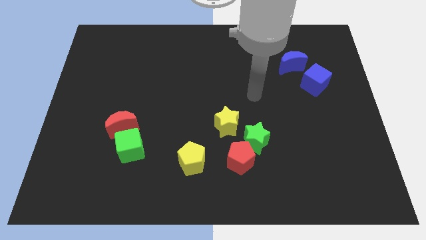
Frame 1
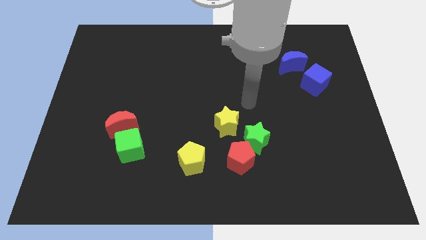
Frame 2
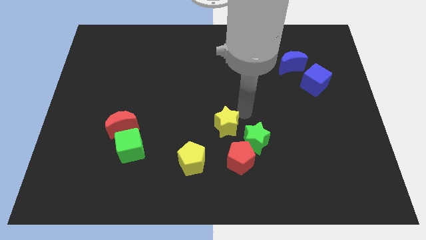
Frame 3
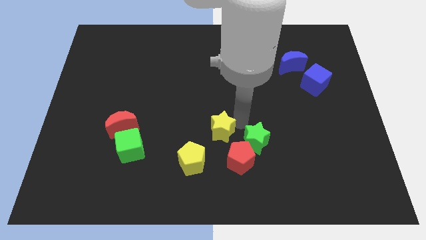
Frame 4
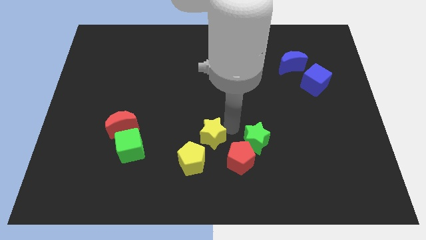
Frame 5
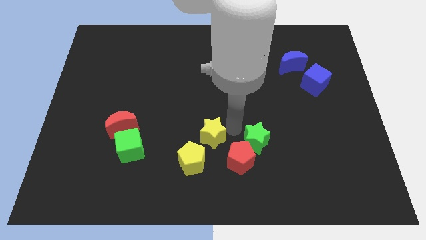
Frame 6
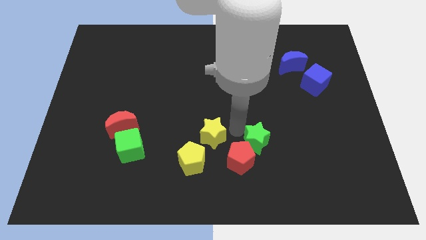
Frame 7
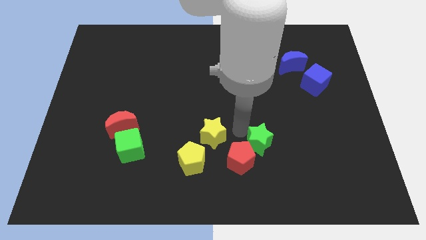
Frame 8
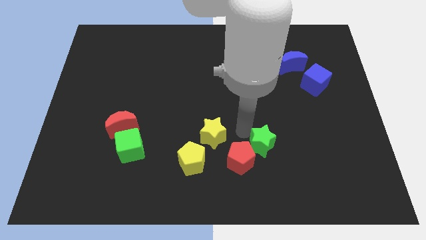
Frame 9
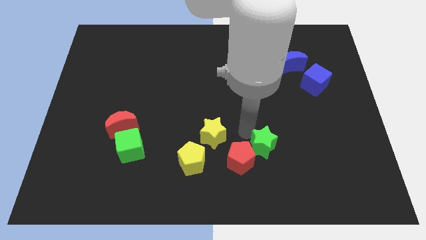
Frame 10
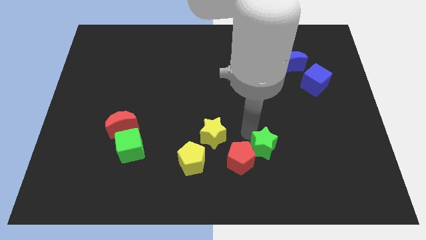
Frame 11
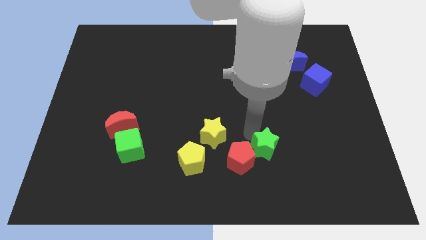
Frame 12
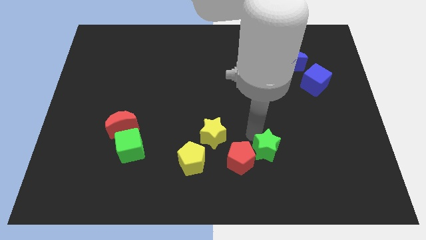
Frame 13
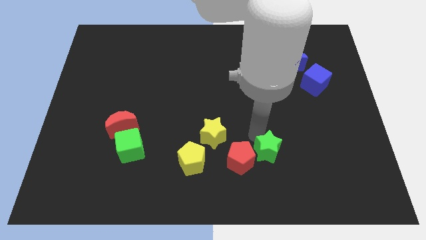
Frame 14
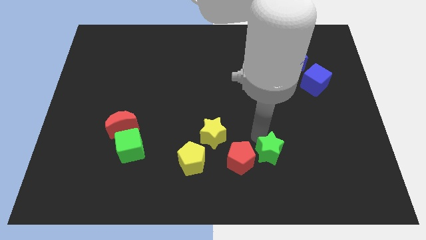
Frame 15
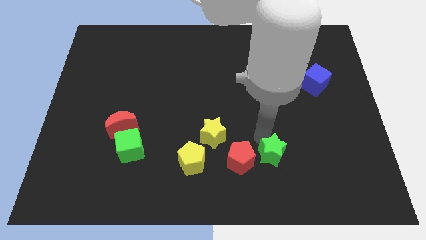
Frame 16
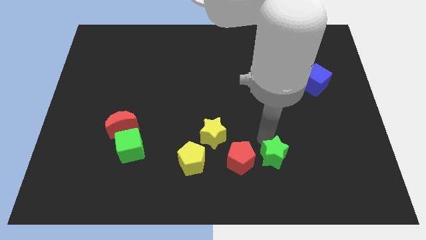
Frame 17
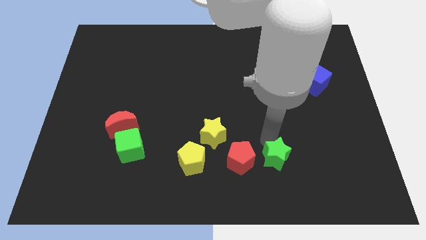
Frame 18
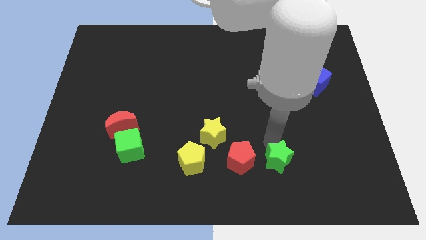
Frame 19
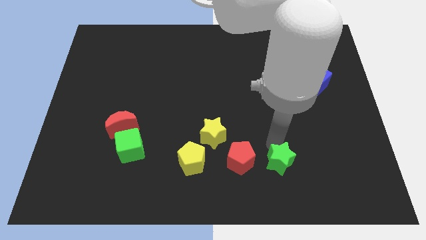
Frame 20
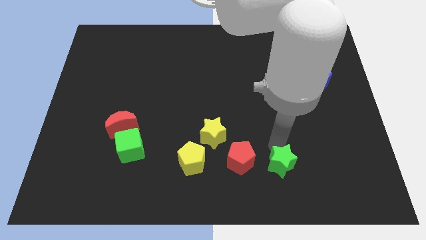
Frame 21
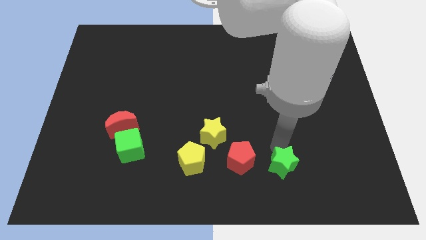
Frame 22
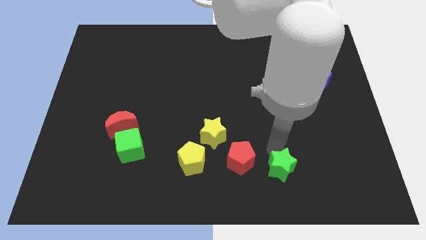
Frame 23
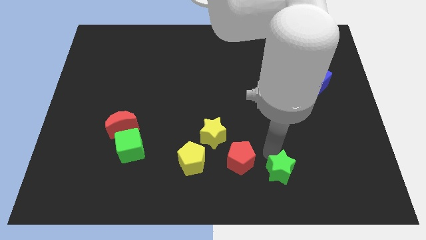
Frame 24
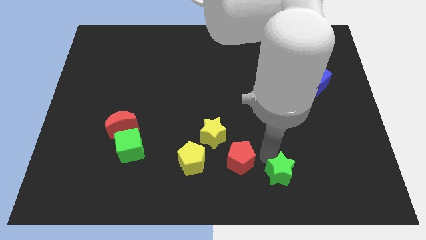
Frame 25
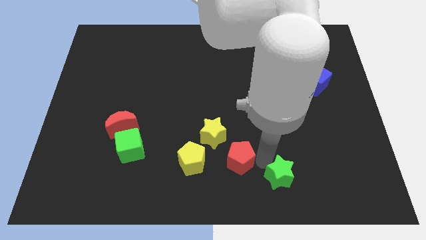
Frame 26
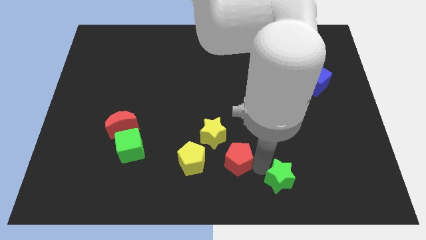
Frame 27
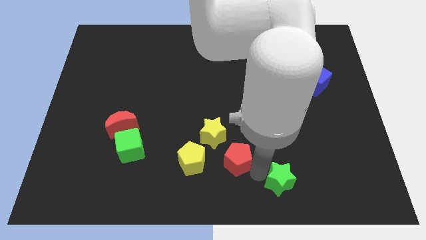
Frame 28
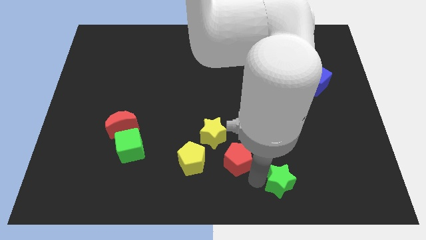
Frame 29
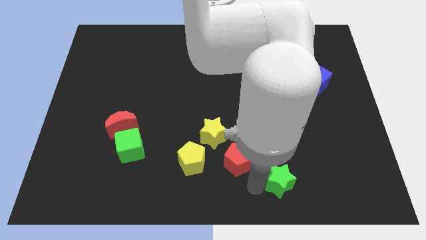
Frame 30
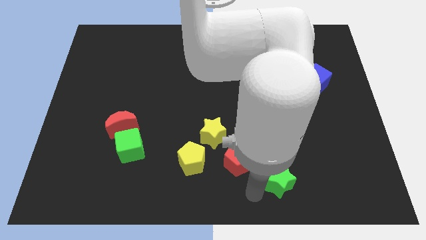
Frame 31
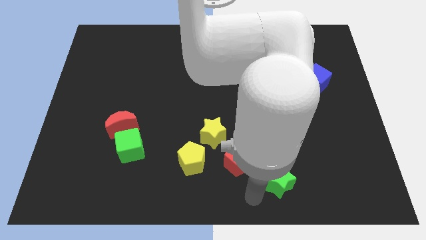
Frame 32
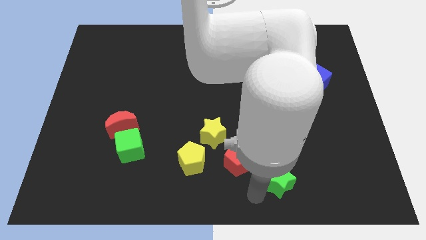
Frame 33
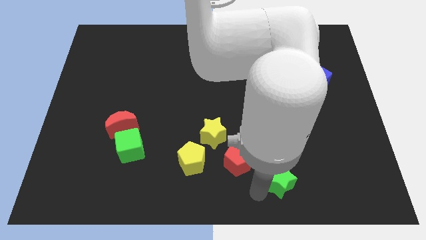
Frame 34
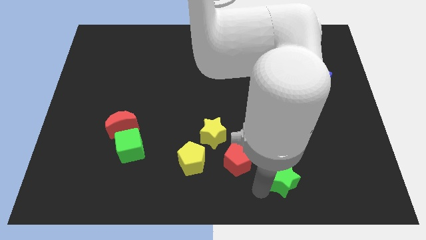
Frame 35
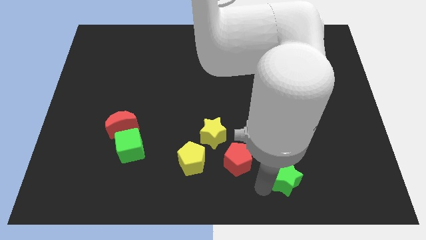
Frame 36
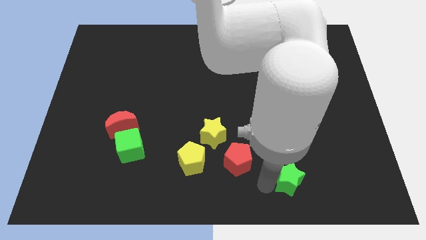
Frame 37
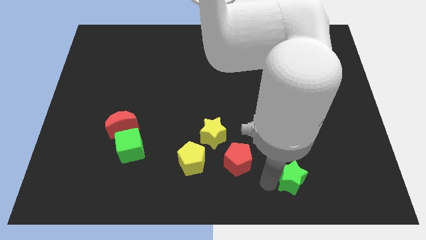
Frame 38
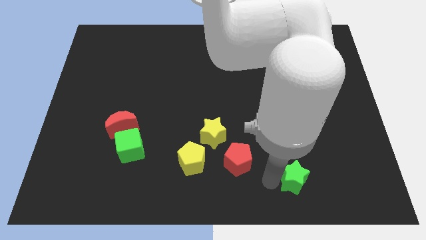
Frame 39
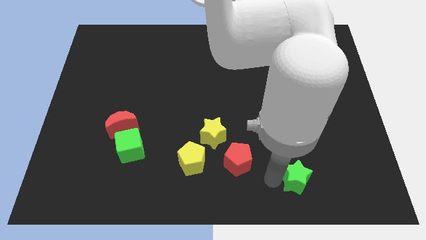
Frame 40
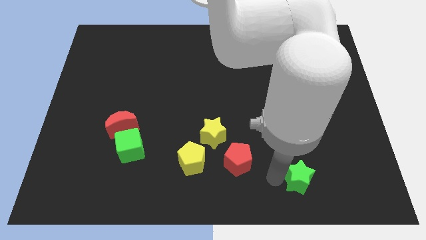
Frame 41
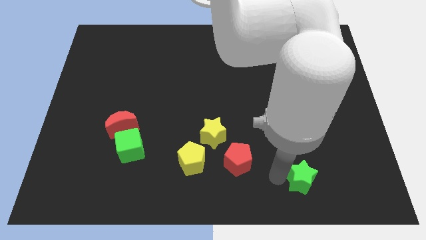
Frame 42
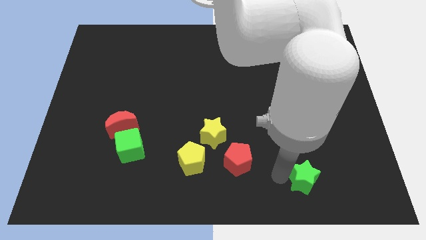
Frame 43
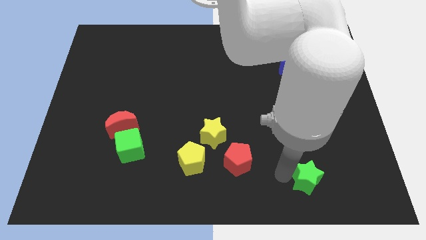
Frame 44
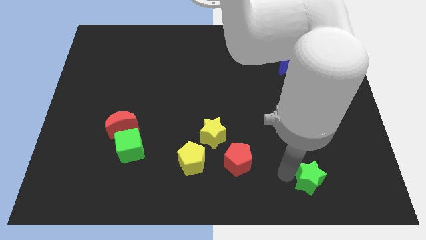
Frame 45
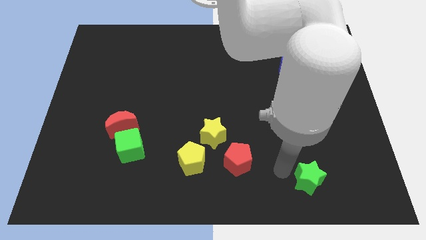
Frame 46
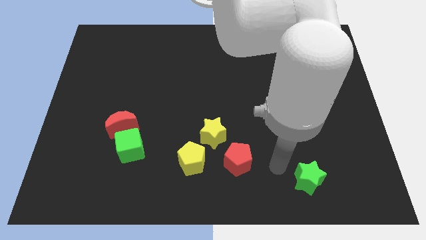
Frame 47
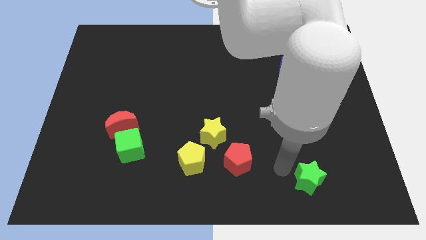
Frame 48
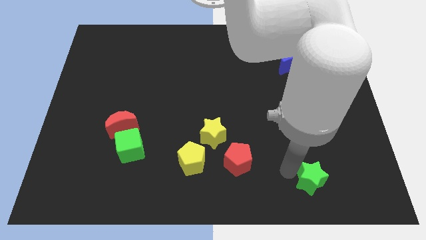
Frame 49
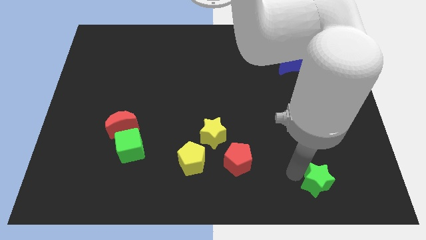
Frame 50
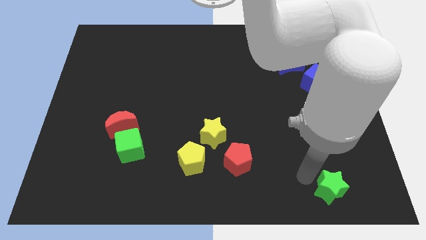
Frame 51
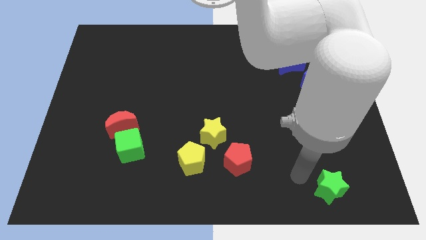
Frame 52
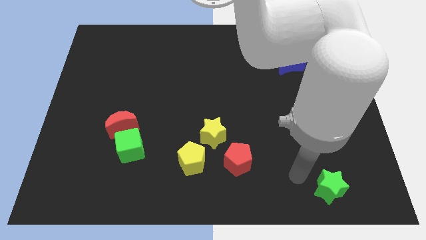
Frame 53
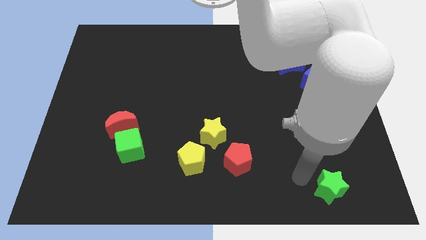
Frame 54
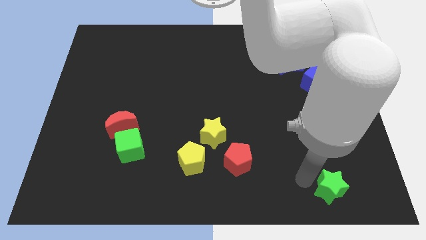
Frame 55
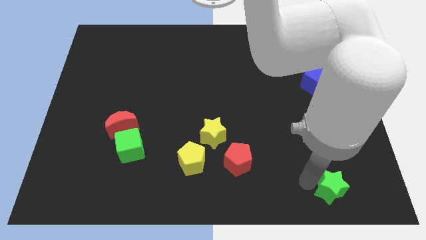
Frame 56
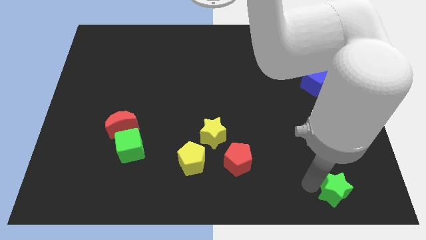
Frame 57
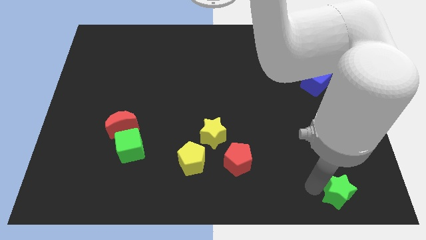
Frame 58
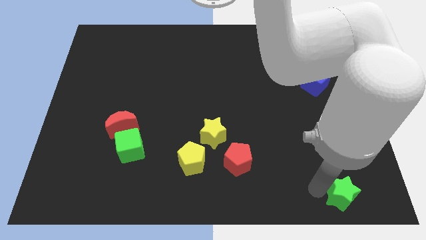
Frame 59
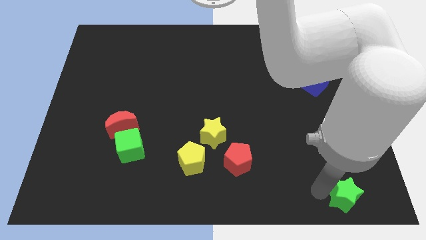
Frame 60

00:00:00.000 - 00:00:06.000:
push the green star to the bottom right corner

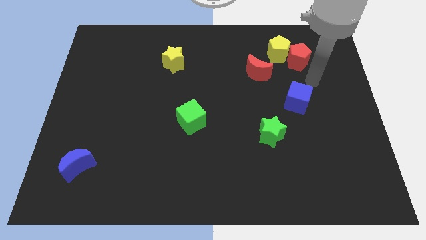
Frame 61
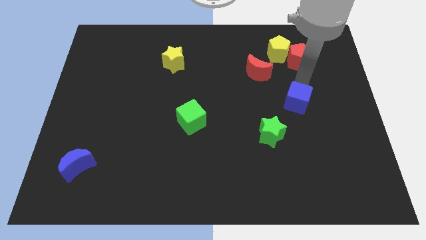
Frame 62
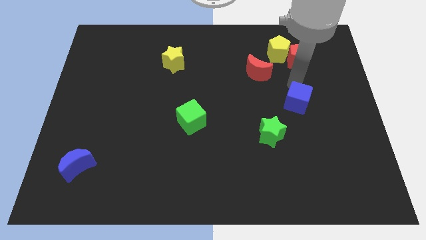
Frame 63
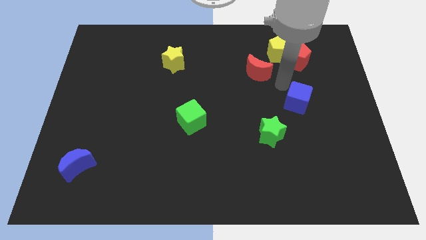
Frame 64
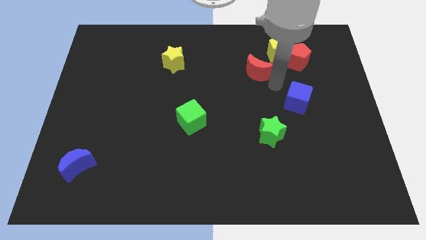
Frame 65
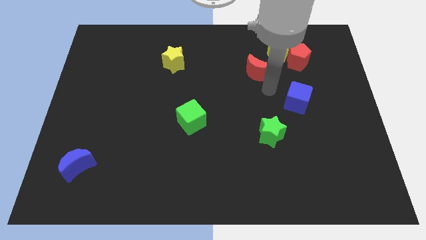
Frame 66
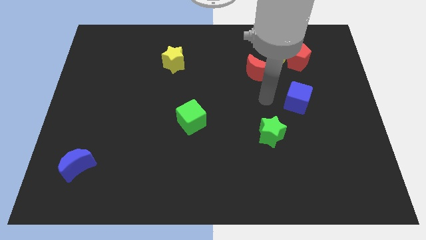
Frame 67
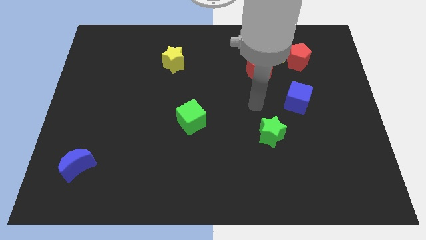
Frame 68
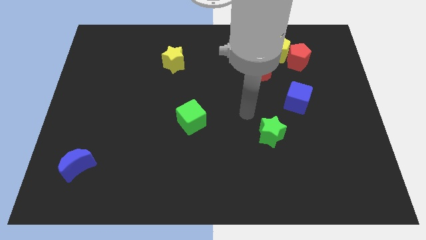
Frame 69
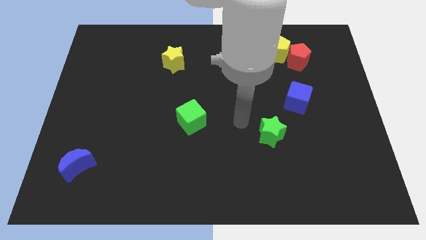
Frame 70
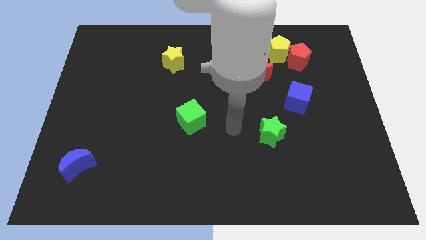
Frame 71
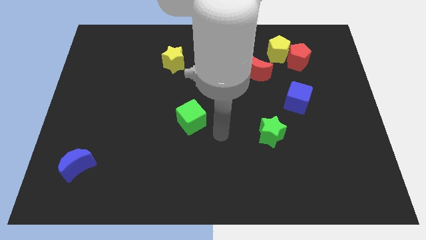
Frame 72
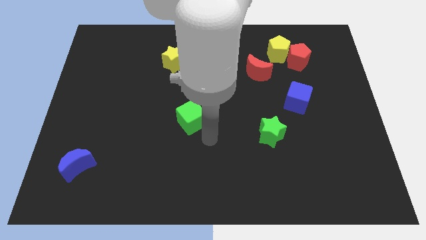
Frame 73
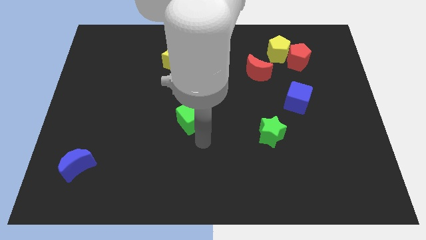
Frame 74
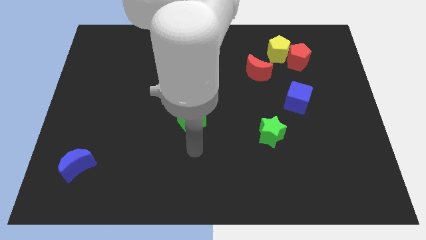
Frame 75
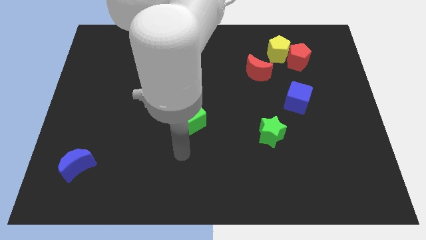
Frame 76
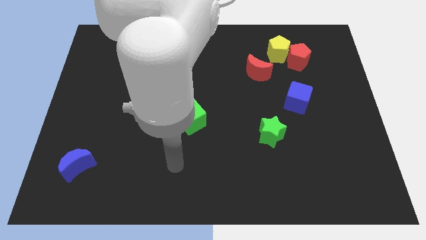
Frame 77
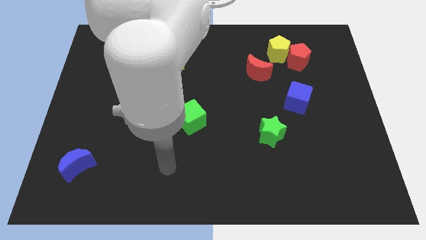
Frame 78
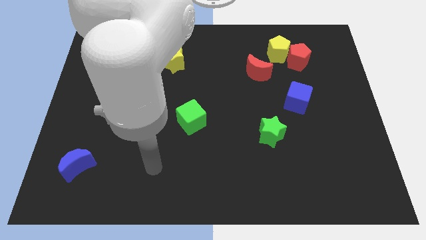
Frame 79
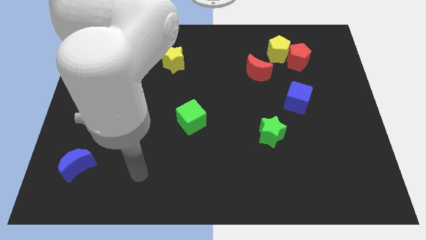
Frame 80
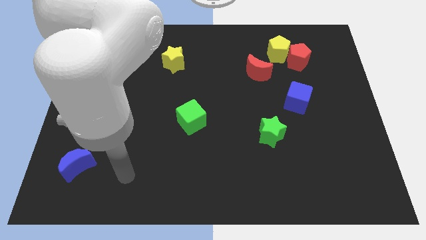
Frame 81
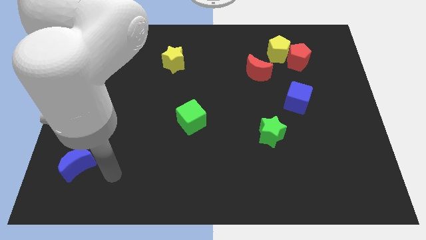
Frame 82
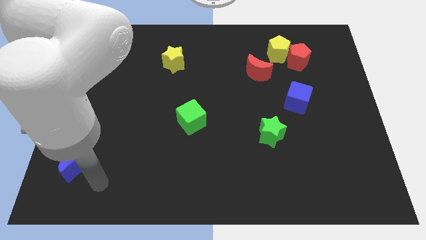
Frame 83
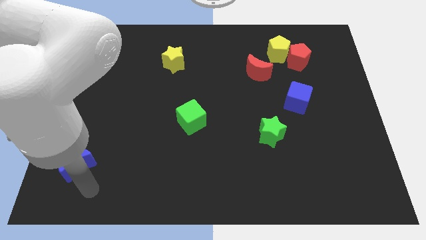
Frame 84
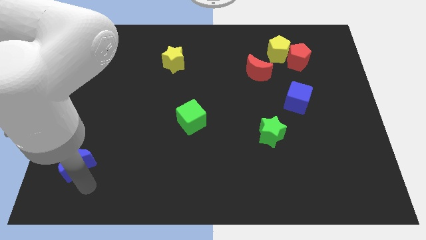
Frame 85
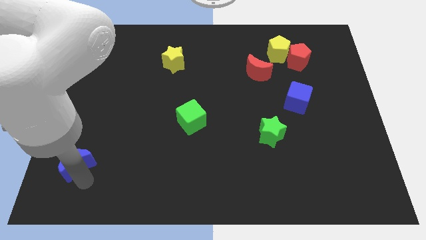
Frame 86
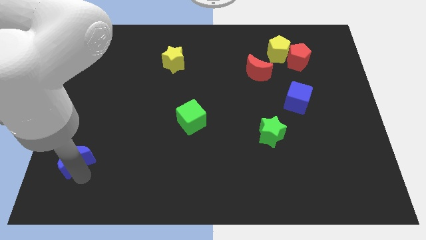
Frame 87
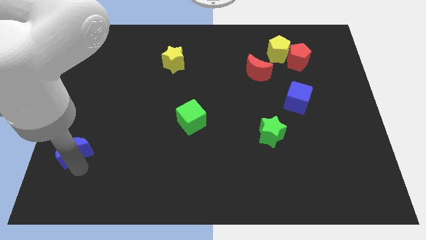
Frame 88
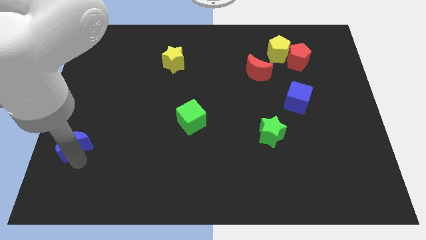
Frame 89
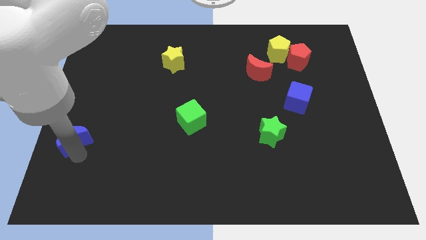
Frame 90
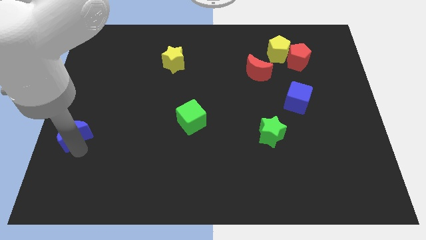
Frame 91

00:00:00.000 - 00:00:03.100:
move the blue moon to the left side
